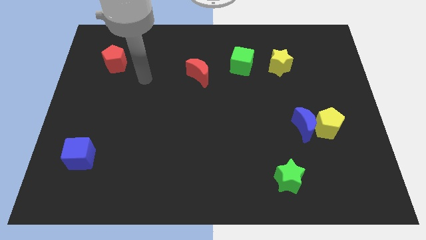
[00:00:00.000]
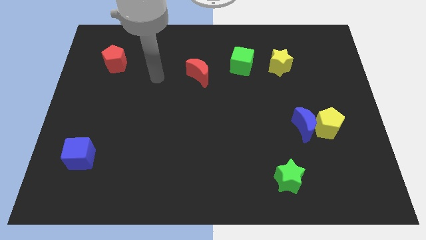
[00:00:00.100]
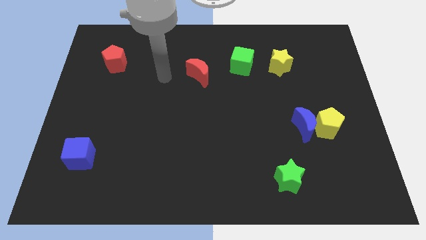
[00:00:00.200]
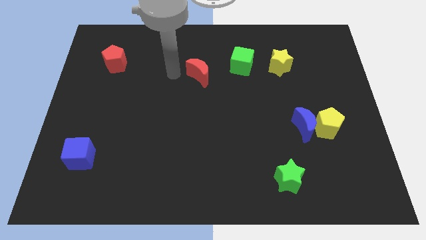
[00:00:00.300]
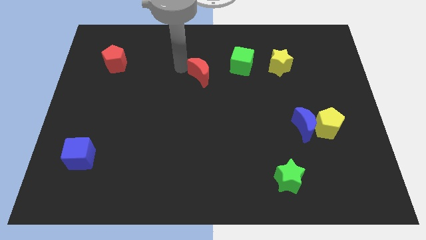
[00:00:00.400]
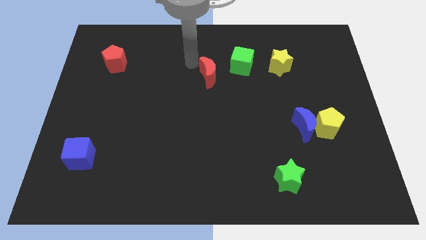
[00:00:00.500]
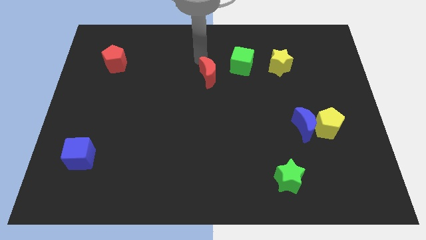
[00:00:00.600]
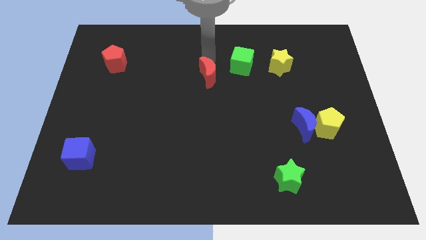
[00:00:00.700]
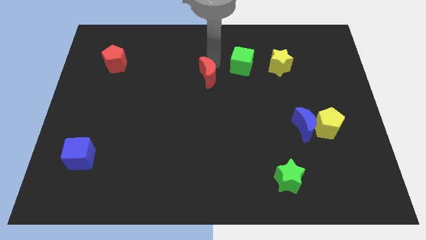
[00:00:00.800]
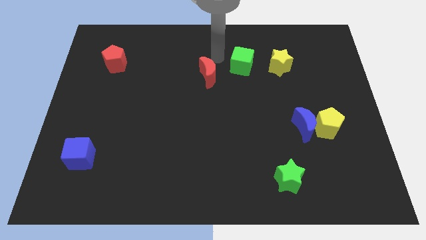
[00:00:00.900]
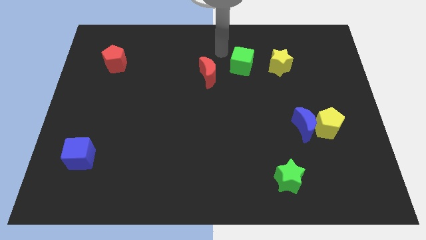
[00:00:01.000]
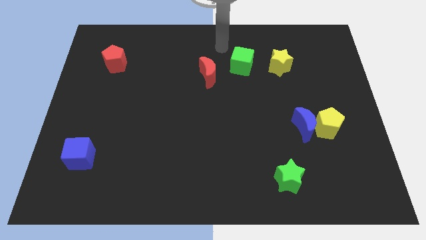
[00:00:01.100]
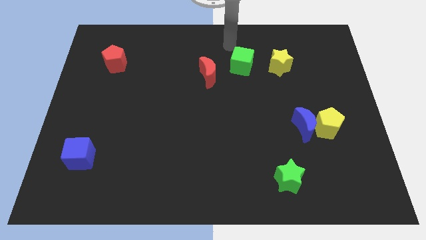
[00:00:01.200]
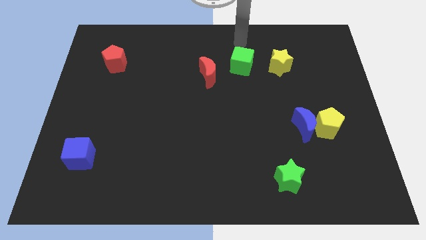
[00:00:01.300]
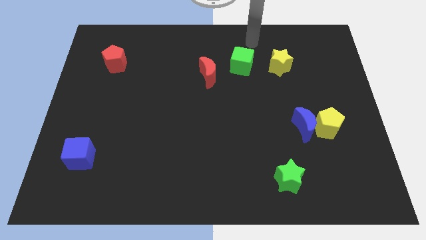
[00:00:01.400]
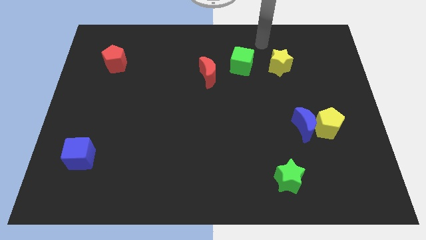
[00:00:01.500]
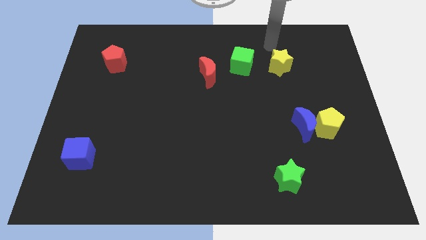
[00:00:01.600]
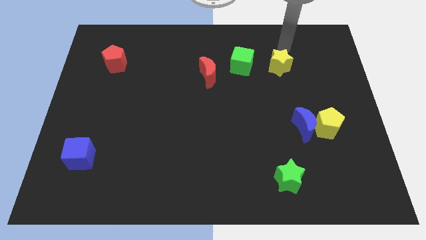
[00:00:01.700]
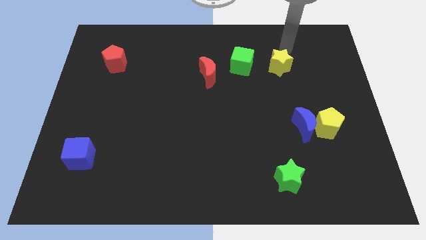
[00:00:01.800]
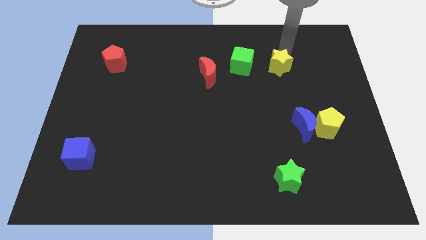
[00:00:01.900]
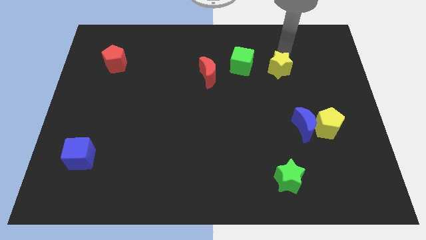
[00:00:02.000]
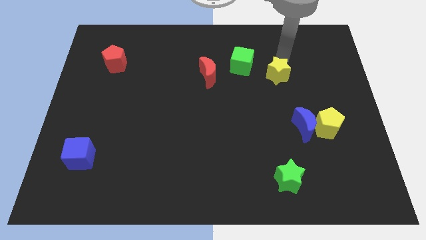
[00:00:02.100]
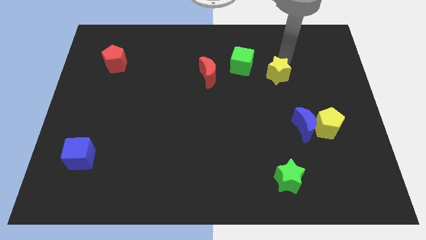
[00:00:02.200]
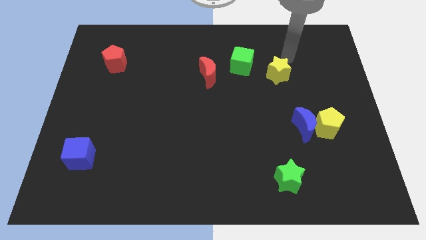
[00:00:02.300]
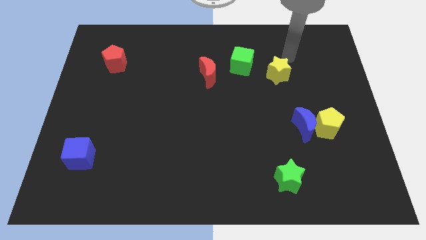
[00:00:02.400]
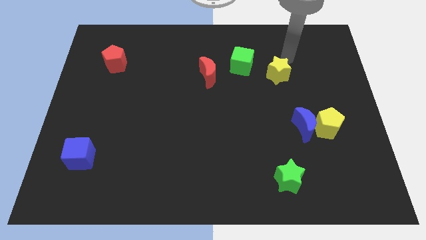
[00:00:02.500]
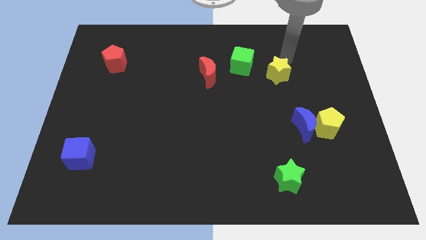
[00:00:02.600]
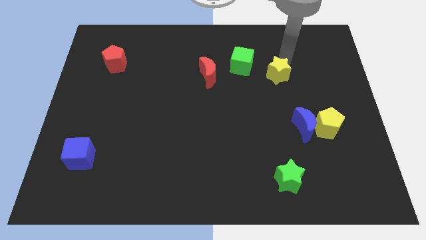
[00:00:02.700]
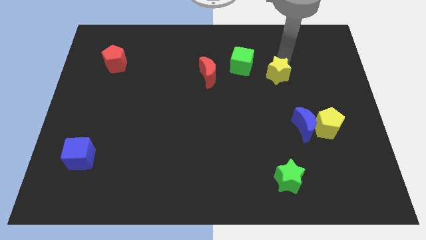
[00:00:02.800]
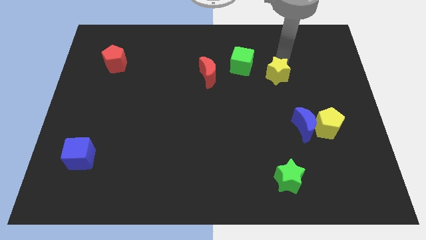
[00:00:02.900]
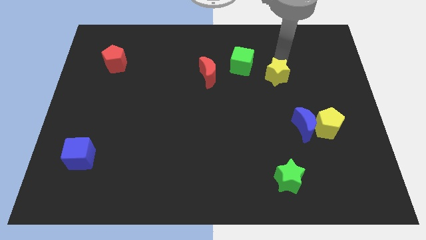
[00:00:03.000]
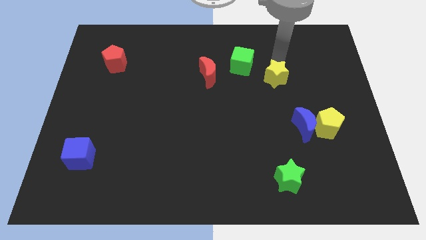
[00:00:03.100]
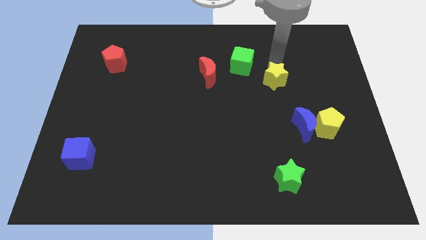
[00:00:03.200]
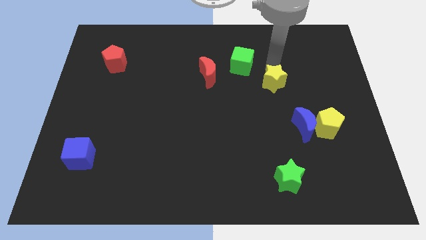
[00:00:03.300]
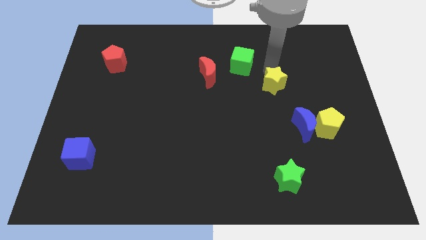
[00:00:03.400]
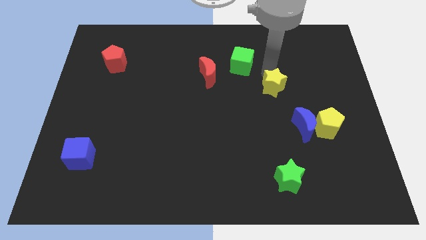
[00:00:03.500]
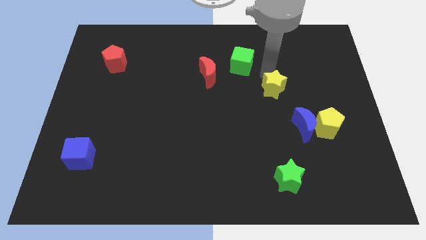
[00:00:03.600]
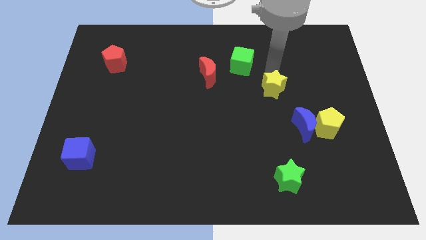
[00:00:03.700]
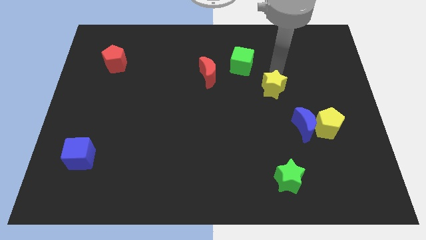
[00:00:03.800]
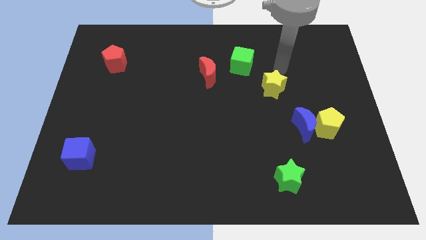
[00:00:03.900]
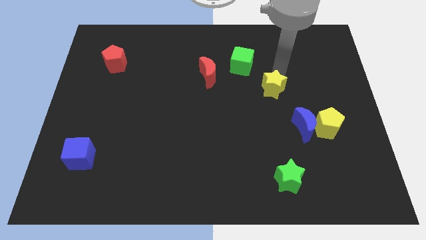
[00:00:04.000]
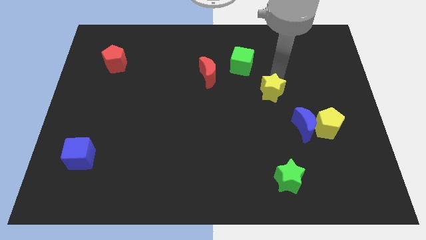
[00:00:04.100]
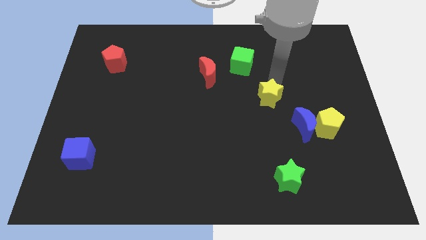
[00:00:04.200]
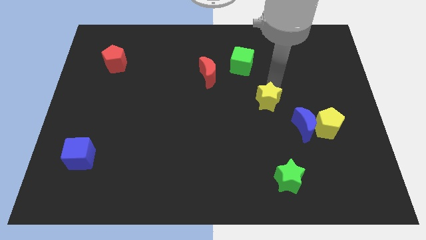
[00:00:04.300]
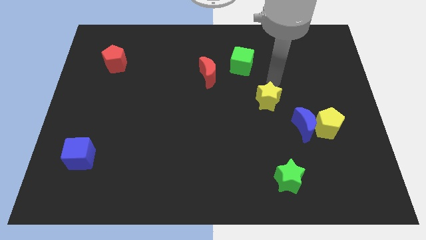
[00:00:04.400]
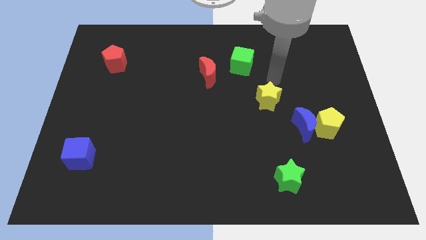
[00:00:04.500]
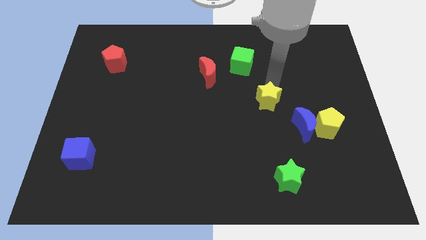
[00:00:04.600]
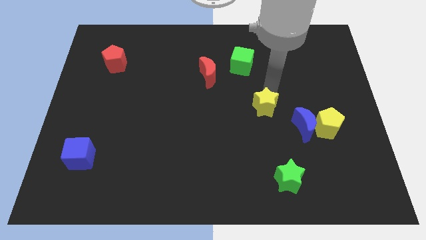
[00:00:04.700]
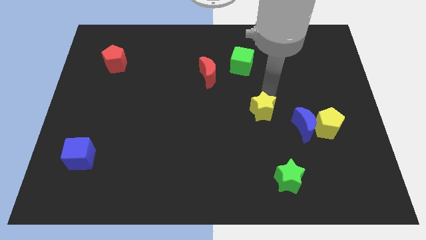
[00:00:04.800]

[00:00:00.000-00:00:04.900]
move the yellow star to the left side of the blue moon

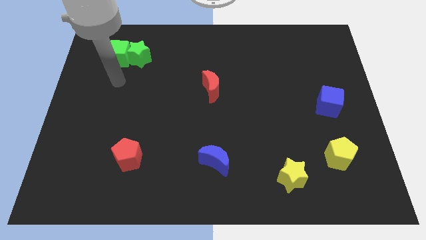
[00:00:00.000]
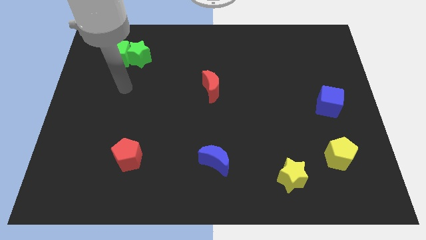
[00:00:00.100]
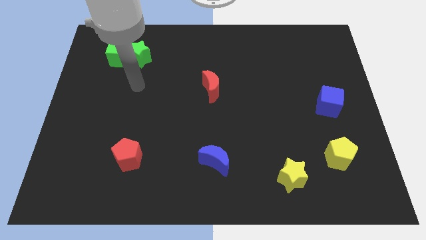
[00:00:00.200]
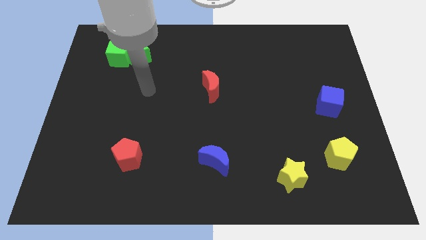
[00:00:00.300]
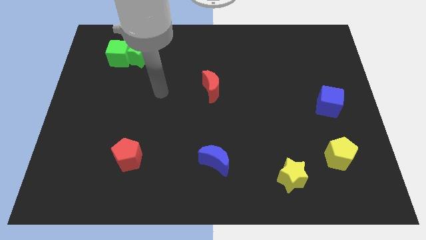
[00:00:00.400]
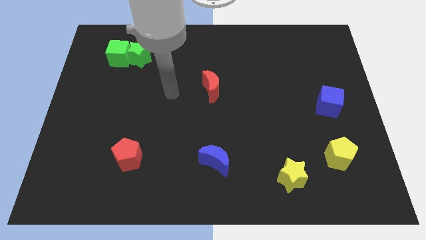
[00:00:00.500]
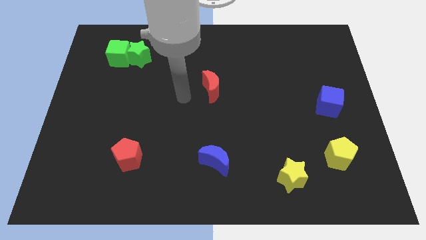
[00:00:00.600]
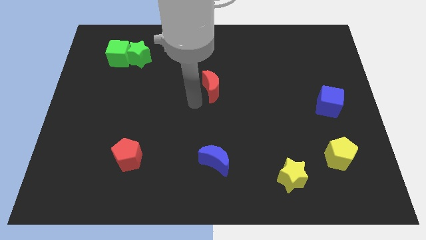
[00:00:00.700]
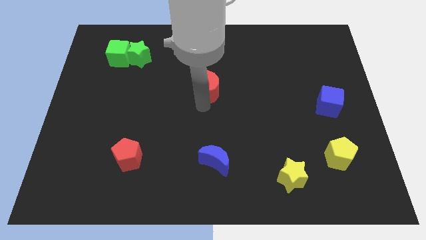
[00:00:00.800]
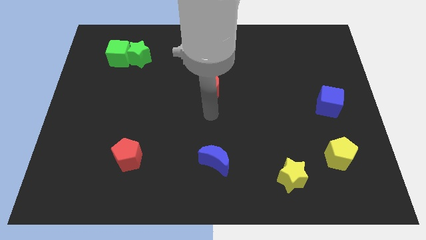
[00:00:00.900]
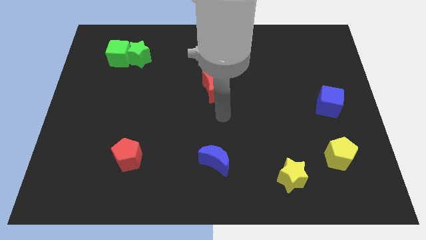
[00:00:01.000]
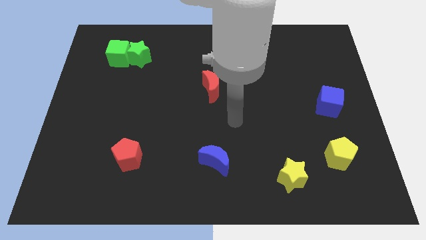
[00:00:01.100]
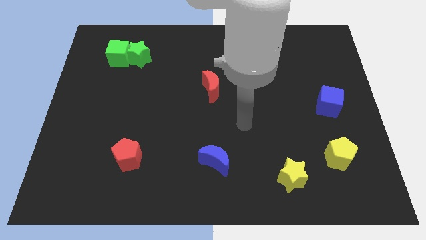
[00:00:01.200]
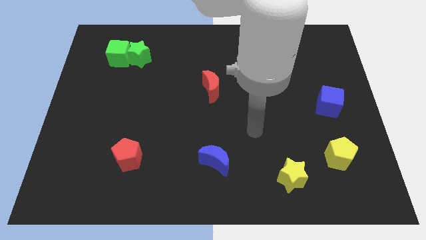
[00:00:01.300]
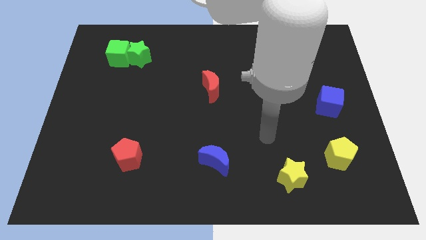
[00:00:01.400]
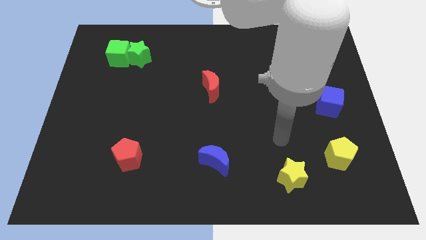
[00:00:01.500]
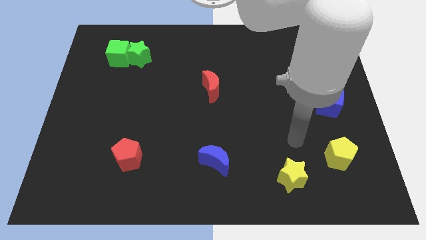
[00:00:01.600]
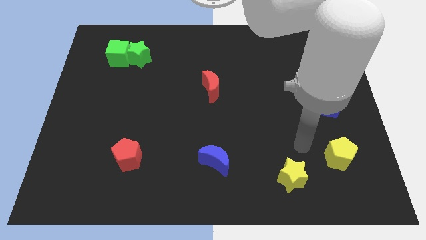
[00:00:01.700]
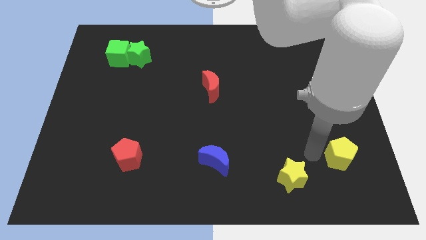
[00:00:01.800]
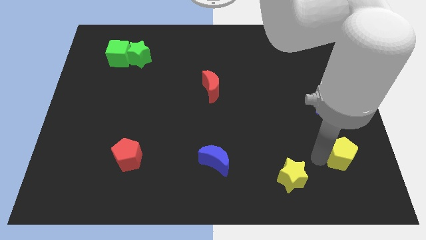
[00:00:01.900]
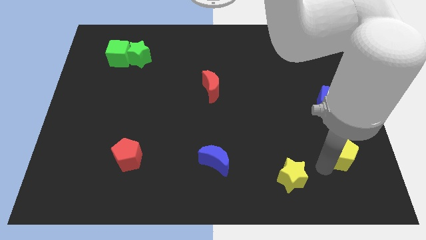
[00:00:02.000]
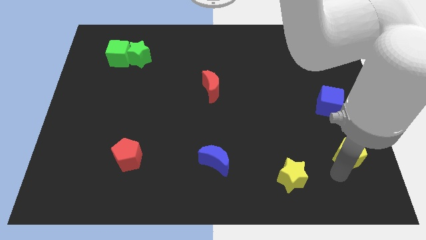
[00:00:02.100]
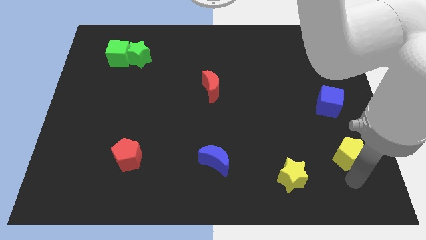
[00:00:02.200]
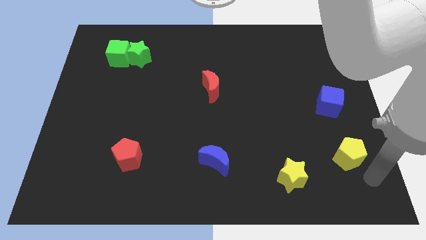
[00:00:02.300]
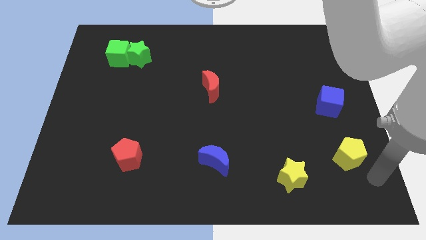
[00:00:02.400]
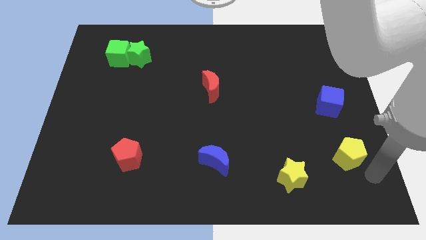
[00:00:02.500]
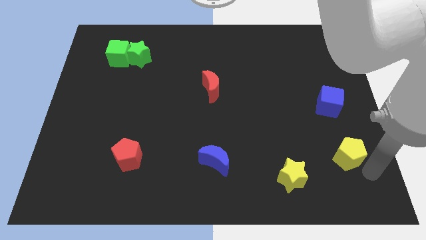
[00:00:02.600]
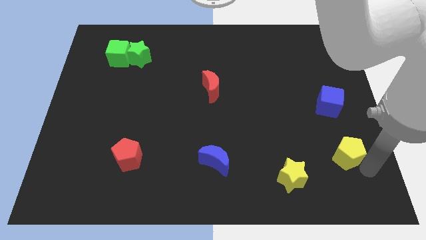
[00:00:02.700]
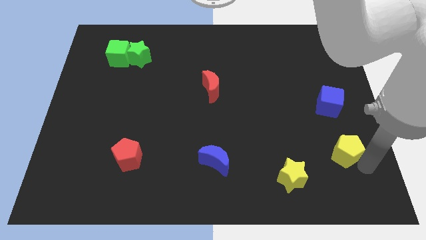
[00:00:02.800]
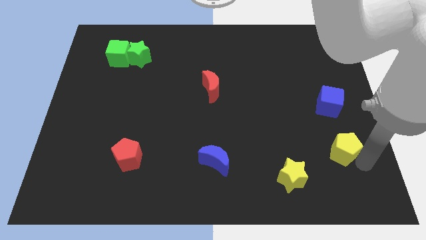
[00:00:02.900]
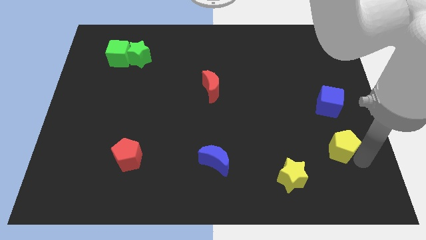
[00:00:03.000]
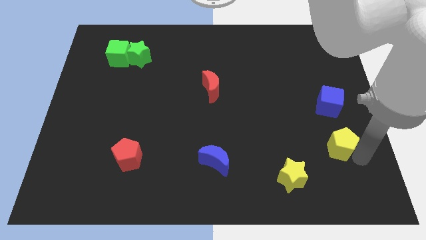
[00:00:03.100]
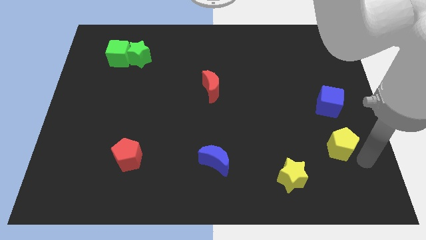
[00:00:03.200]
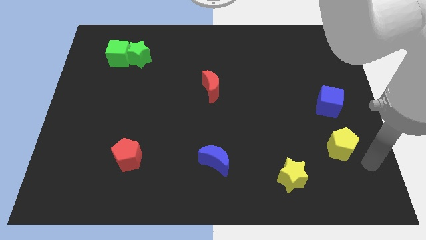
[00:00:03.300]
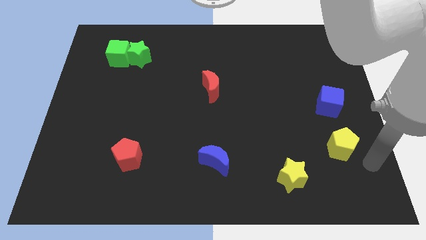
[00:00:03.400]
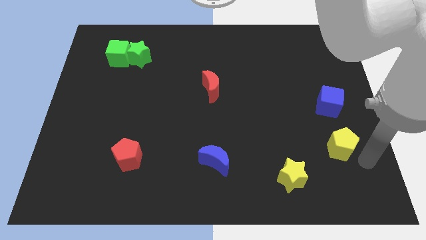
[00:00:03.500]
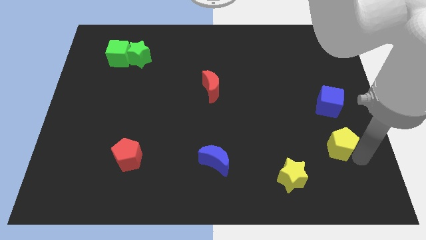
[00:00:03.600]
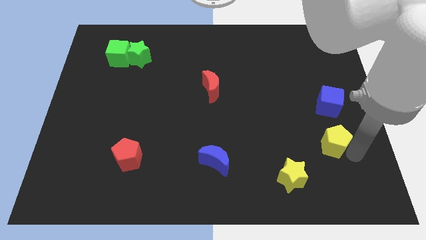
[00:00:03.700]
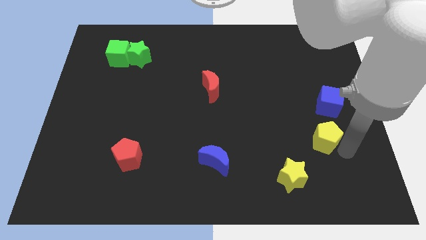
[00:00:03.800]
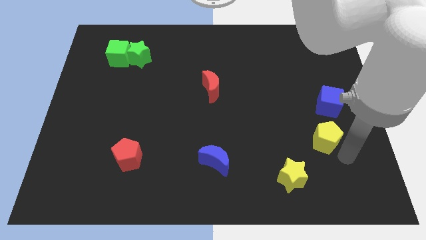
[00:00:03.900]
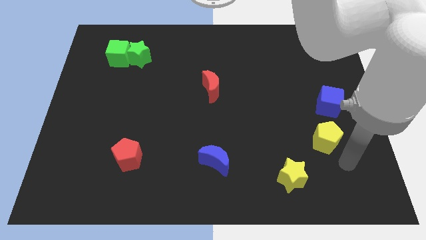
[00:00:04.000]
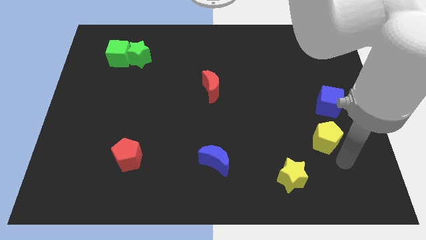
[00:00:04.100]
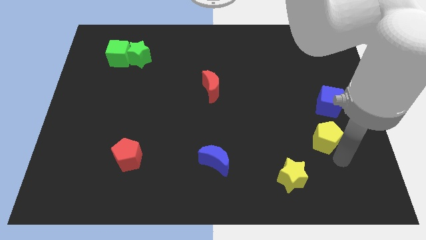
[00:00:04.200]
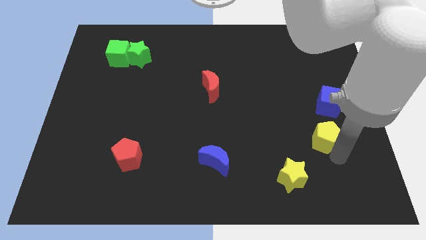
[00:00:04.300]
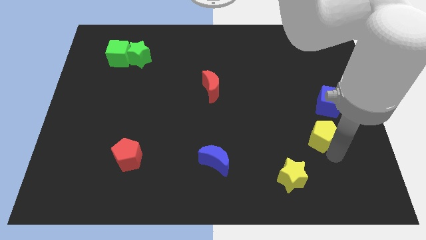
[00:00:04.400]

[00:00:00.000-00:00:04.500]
push the yellow pentagon diagonally down and to the left of the blue cube
